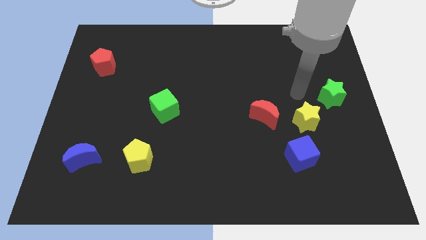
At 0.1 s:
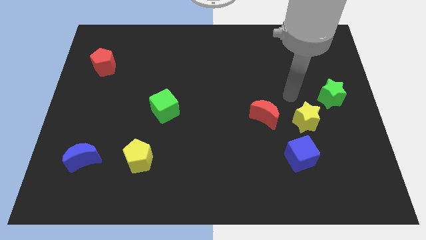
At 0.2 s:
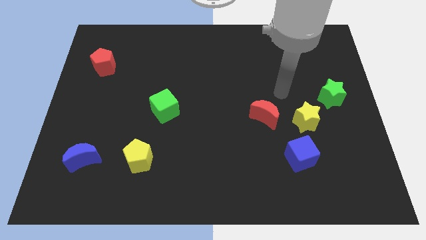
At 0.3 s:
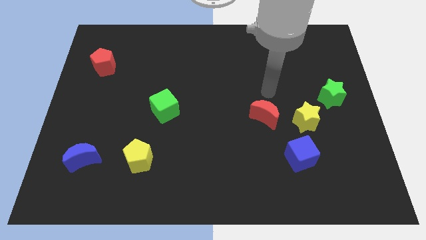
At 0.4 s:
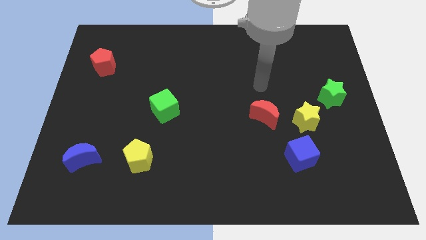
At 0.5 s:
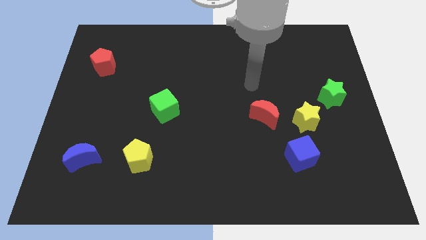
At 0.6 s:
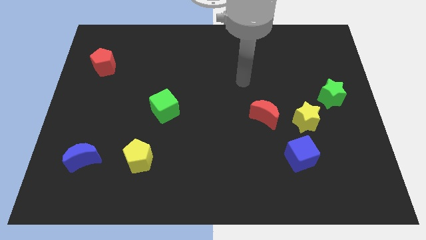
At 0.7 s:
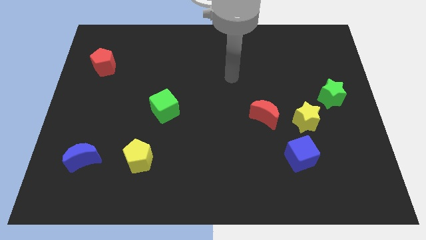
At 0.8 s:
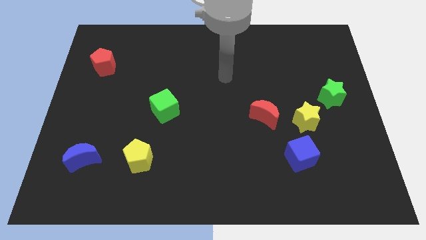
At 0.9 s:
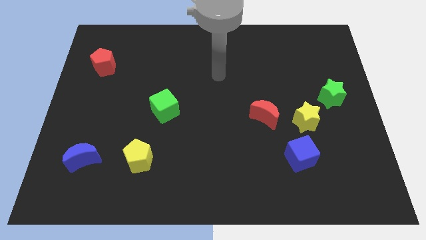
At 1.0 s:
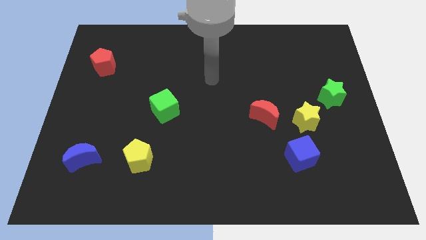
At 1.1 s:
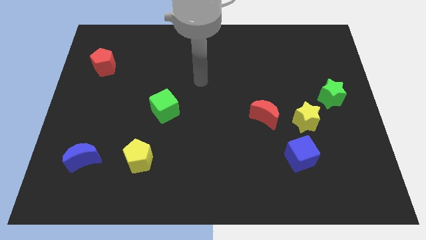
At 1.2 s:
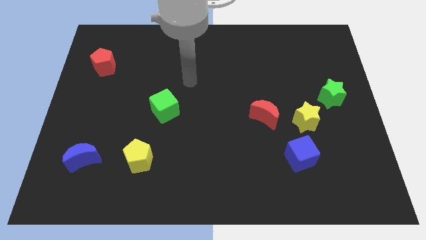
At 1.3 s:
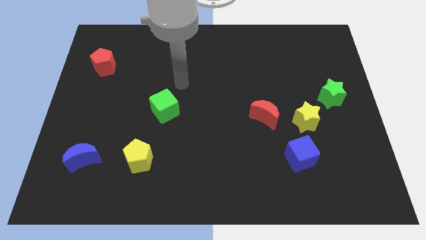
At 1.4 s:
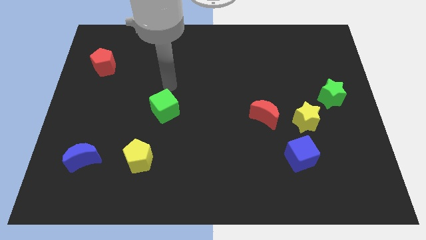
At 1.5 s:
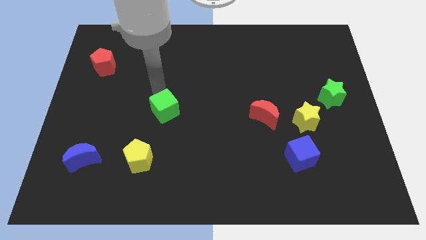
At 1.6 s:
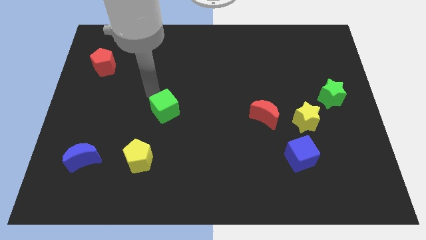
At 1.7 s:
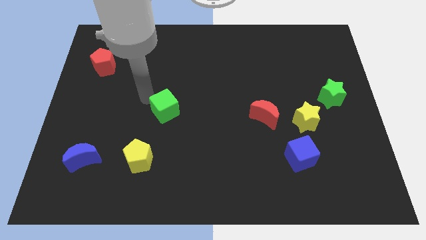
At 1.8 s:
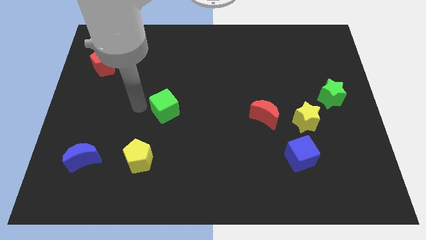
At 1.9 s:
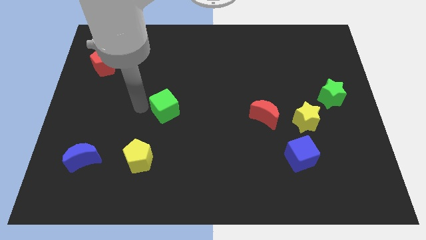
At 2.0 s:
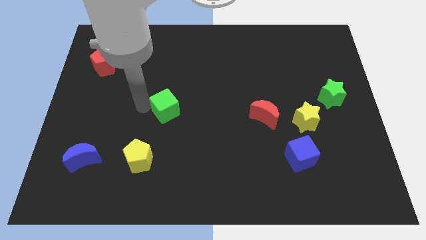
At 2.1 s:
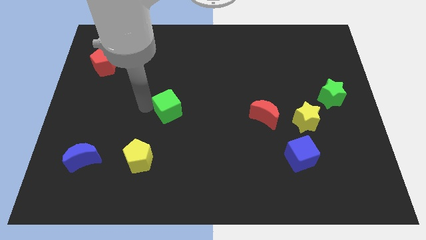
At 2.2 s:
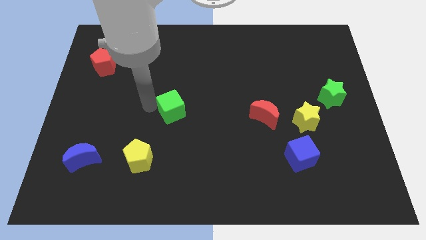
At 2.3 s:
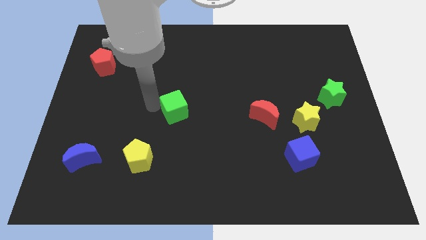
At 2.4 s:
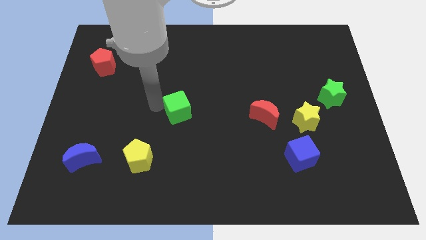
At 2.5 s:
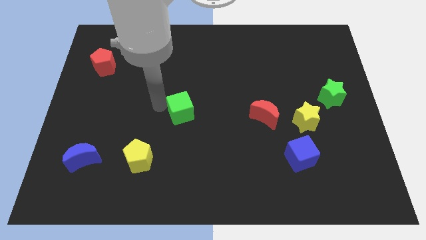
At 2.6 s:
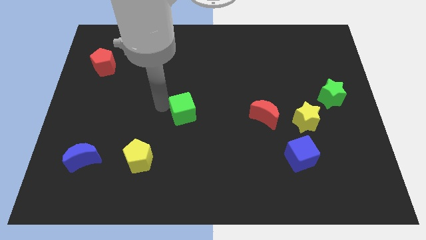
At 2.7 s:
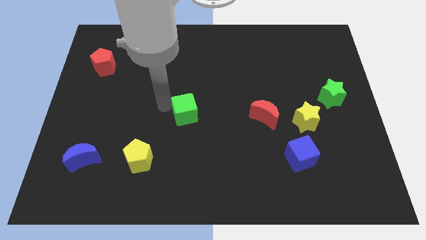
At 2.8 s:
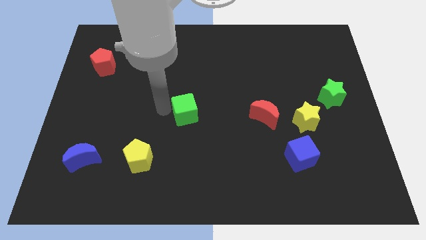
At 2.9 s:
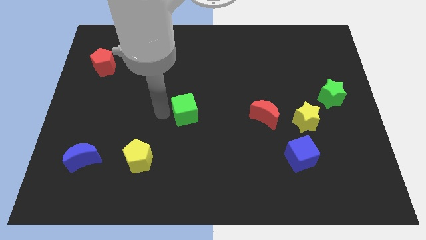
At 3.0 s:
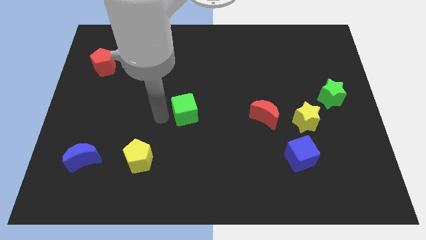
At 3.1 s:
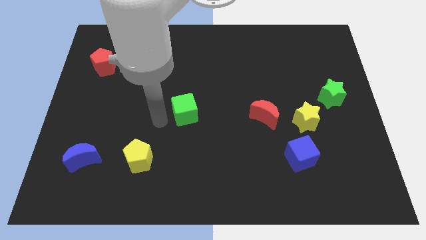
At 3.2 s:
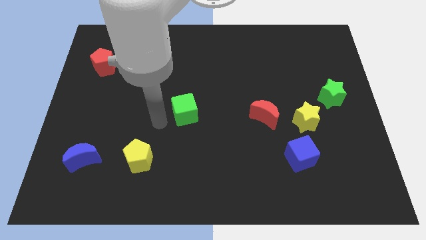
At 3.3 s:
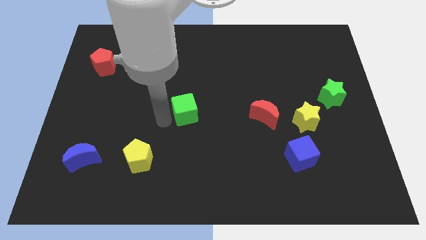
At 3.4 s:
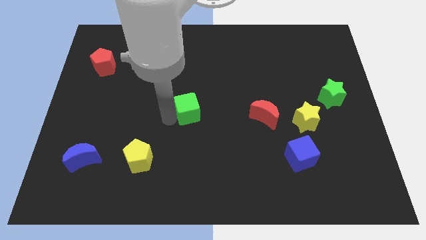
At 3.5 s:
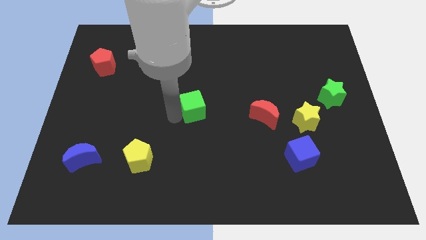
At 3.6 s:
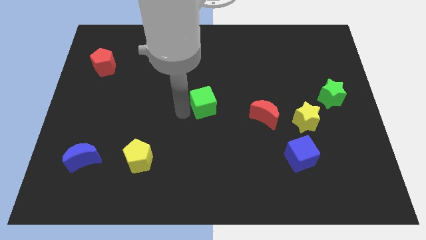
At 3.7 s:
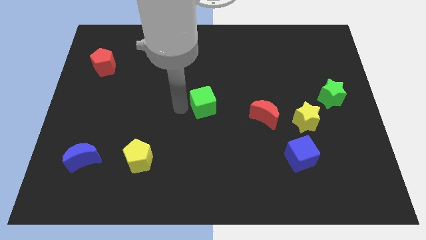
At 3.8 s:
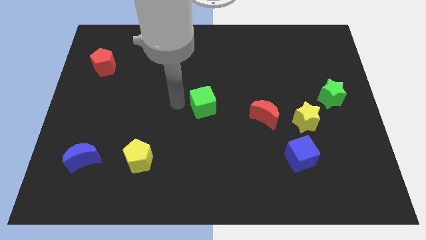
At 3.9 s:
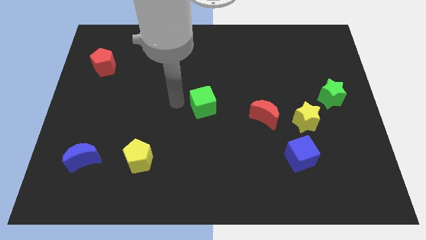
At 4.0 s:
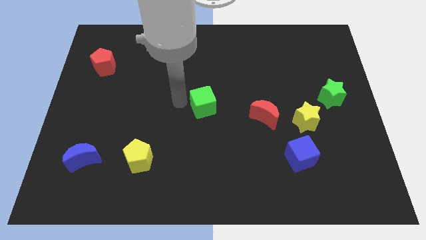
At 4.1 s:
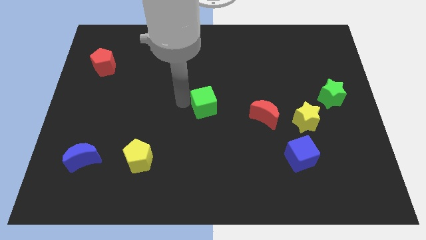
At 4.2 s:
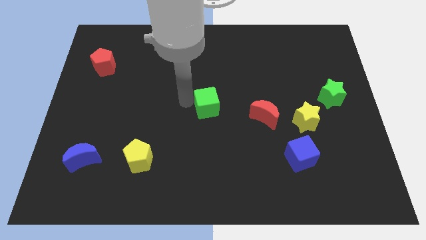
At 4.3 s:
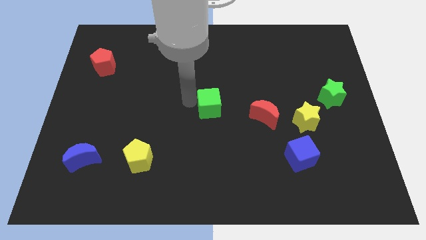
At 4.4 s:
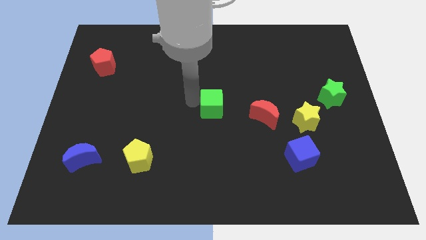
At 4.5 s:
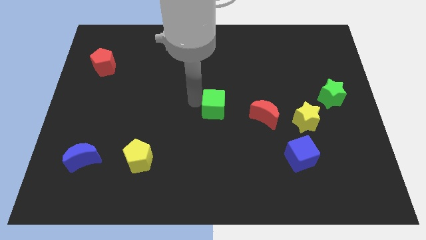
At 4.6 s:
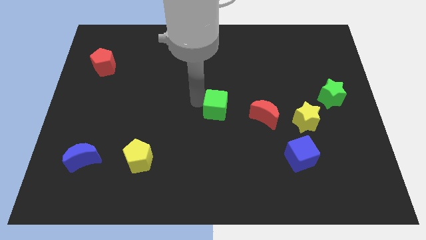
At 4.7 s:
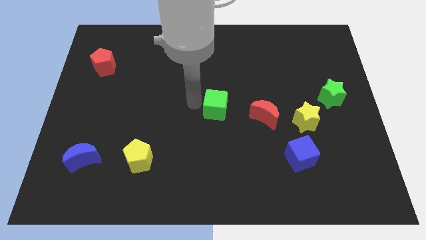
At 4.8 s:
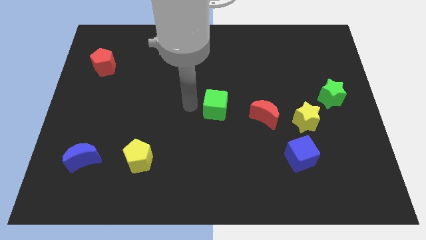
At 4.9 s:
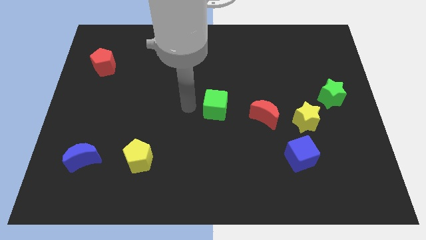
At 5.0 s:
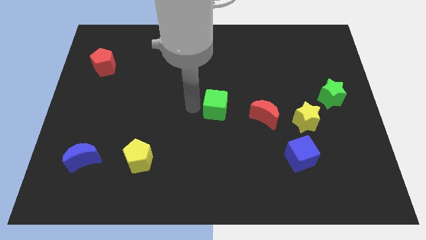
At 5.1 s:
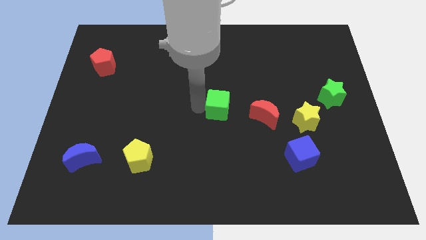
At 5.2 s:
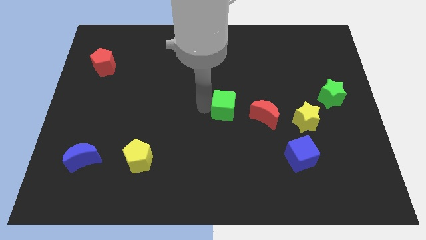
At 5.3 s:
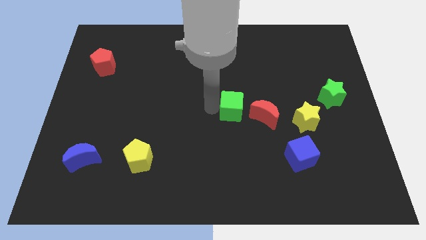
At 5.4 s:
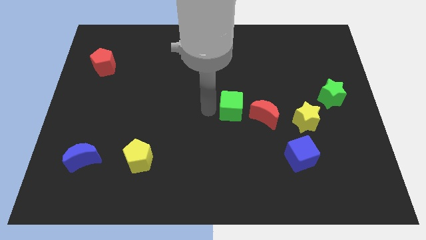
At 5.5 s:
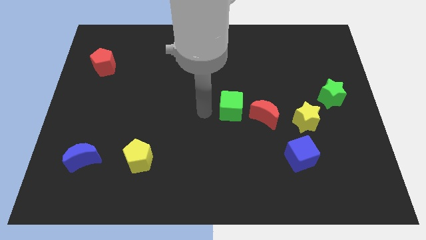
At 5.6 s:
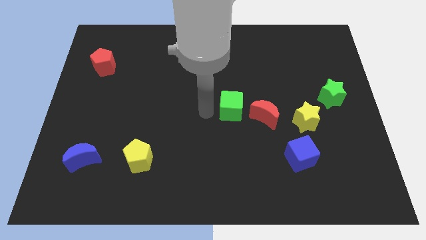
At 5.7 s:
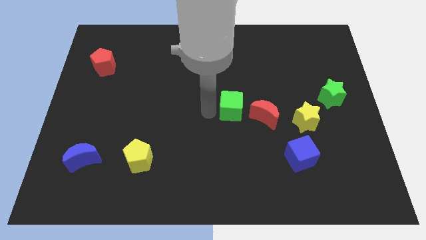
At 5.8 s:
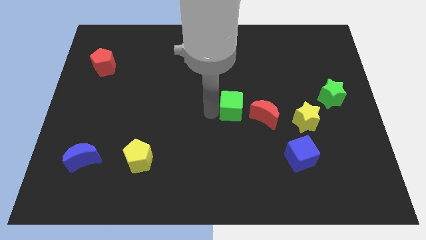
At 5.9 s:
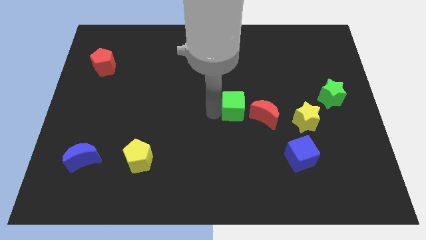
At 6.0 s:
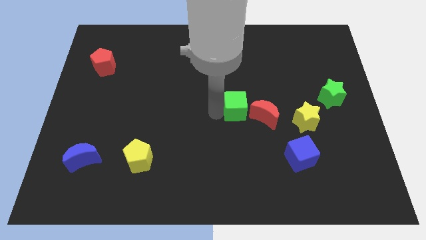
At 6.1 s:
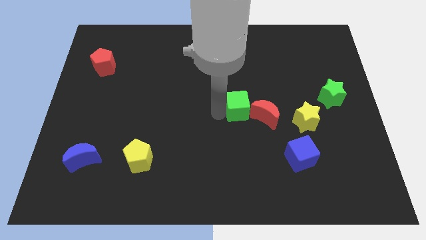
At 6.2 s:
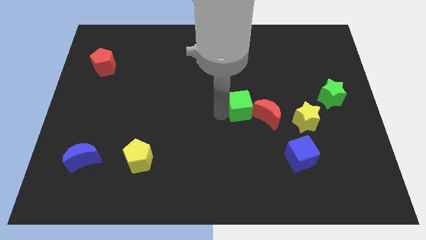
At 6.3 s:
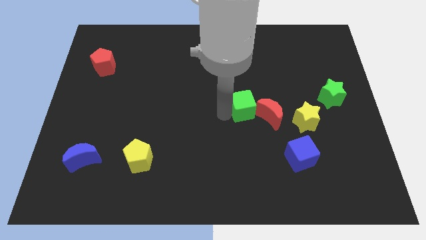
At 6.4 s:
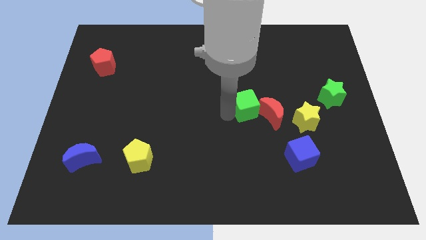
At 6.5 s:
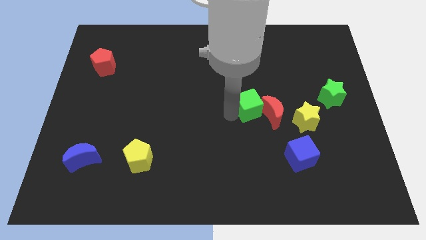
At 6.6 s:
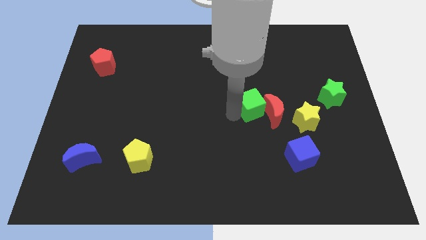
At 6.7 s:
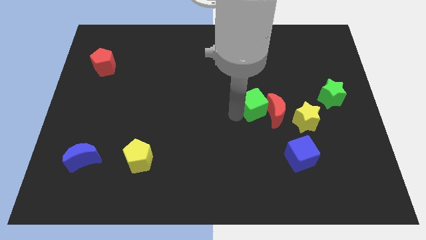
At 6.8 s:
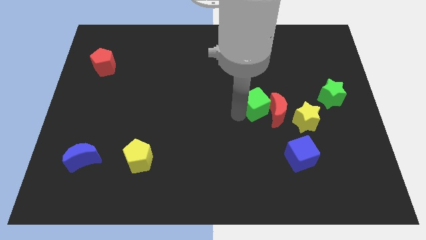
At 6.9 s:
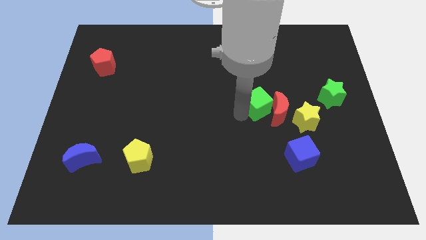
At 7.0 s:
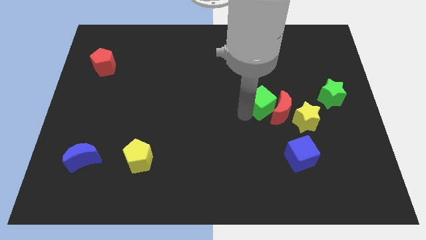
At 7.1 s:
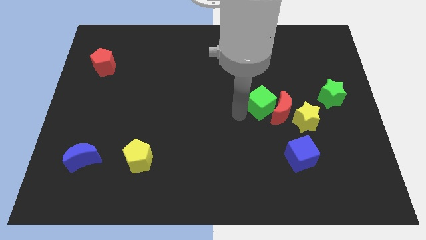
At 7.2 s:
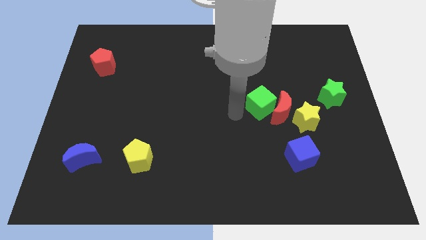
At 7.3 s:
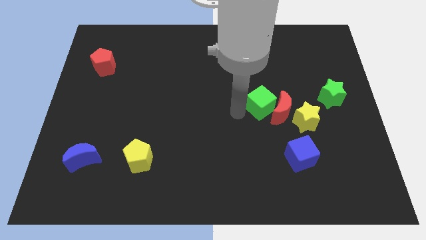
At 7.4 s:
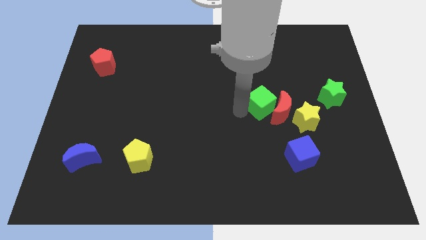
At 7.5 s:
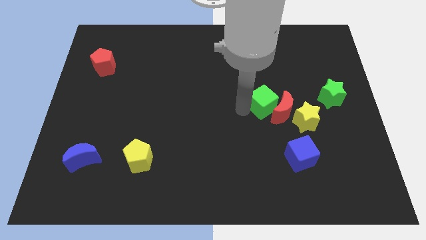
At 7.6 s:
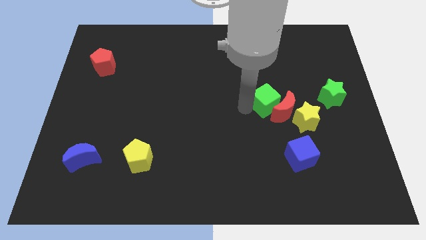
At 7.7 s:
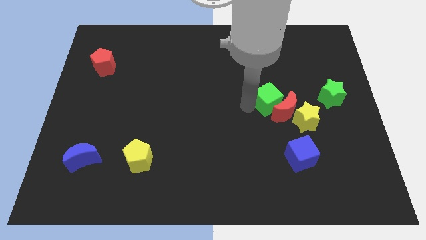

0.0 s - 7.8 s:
move the green cube to the left of the green star
